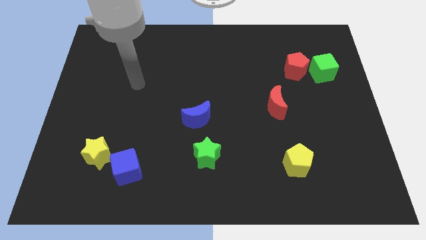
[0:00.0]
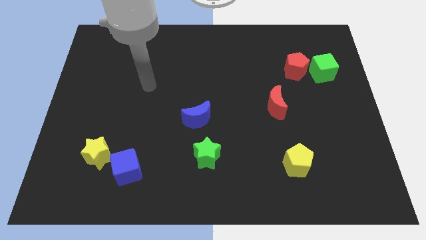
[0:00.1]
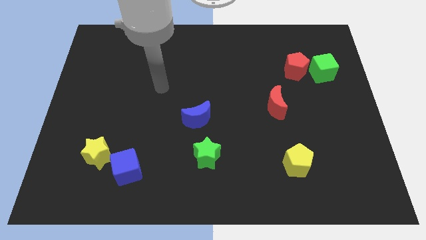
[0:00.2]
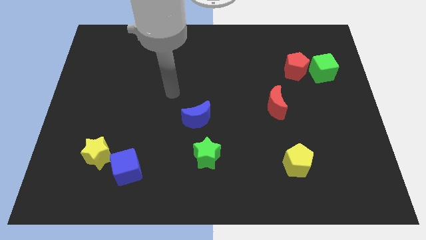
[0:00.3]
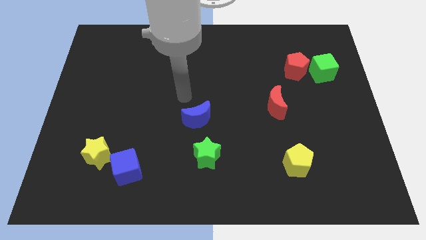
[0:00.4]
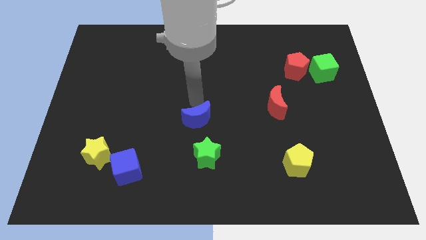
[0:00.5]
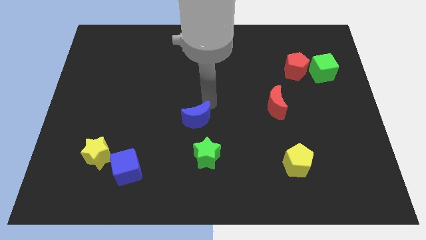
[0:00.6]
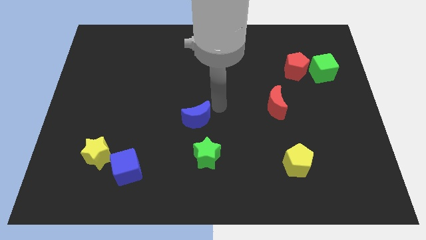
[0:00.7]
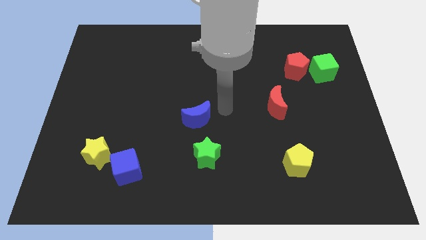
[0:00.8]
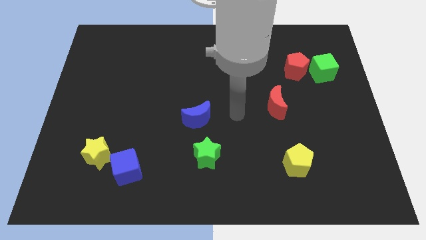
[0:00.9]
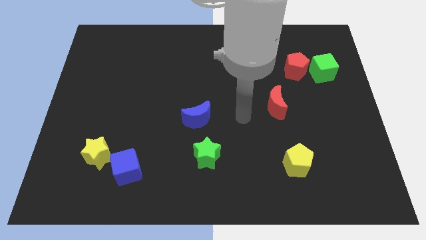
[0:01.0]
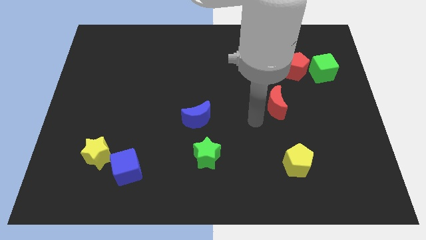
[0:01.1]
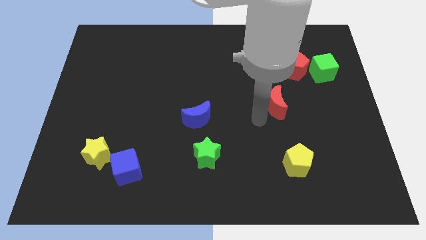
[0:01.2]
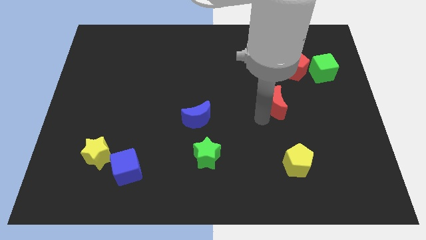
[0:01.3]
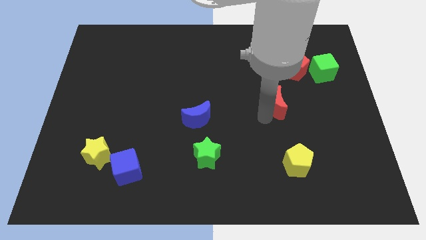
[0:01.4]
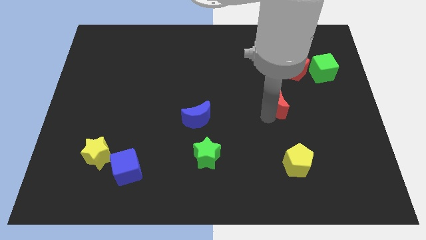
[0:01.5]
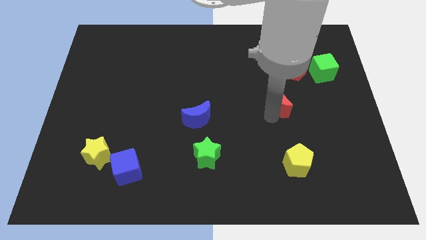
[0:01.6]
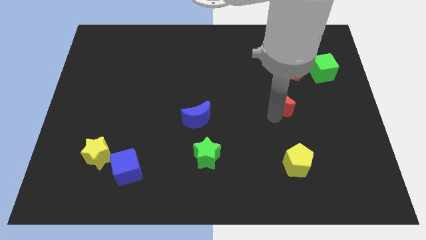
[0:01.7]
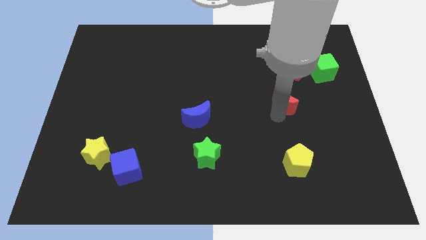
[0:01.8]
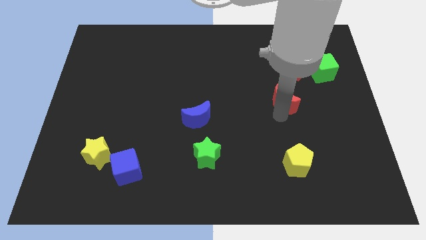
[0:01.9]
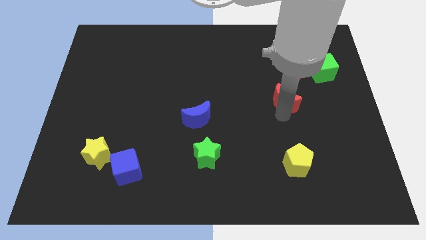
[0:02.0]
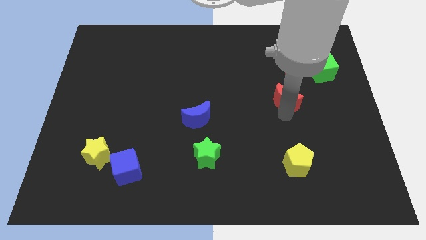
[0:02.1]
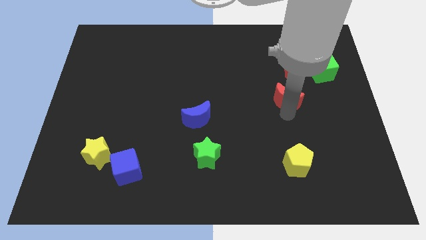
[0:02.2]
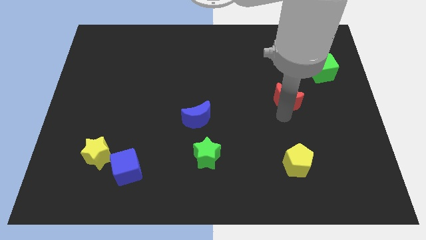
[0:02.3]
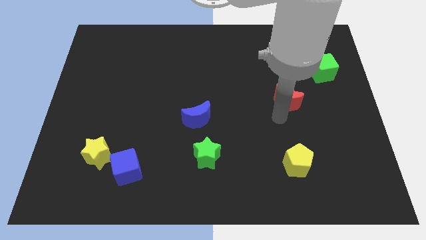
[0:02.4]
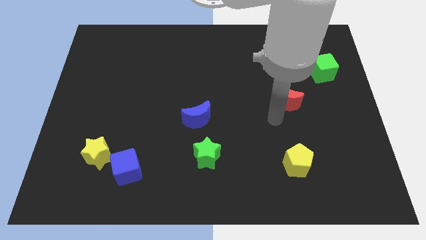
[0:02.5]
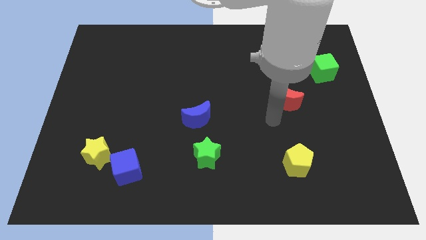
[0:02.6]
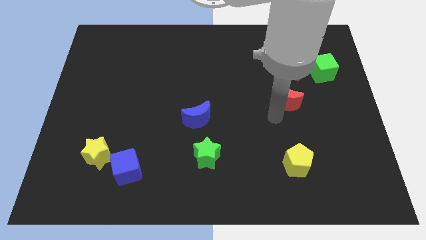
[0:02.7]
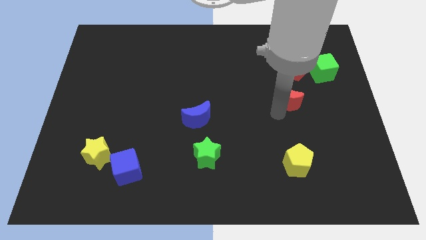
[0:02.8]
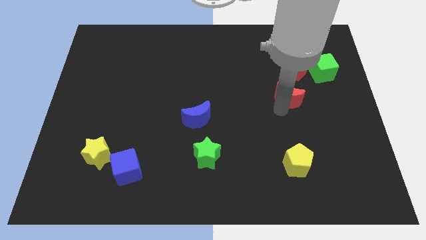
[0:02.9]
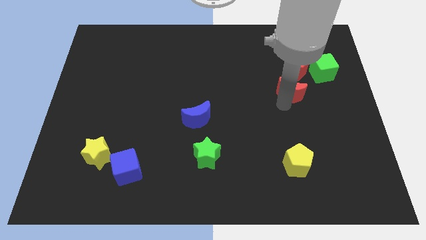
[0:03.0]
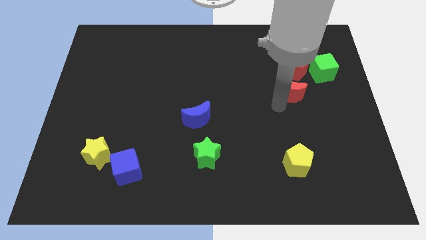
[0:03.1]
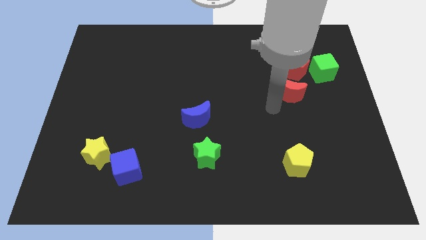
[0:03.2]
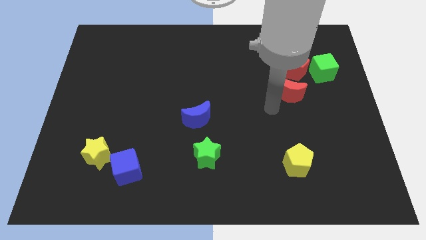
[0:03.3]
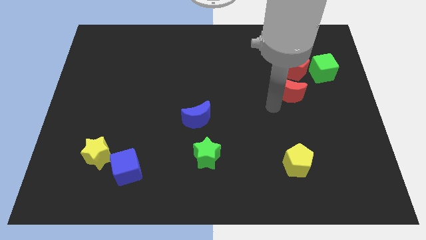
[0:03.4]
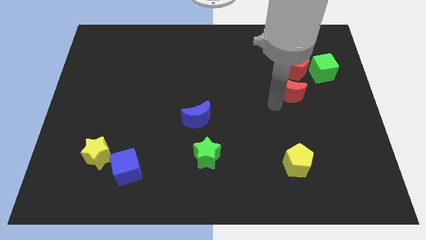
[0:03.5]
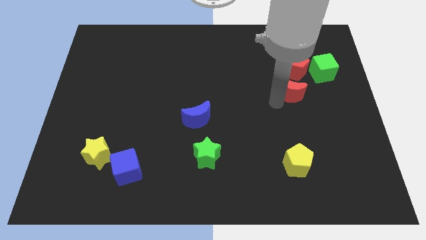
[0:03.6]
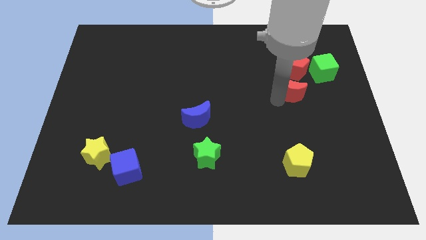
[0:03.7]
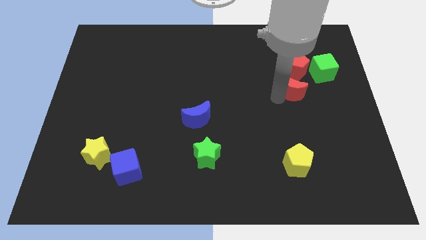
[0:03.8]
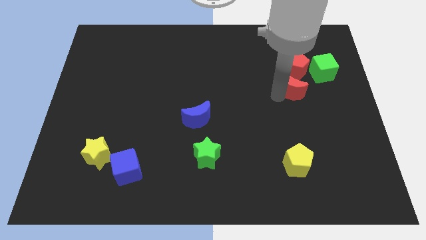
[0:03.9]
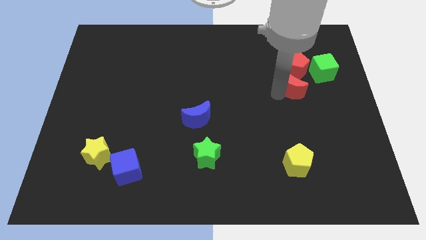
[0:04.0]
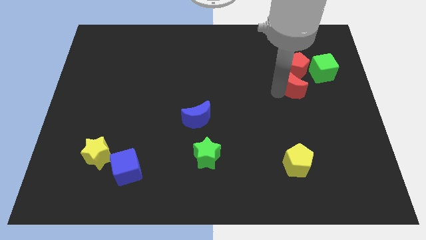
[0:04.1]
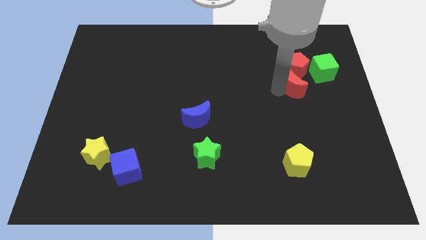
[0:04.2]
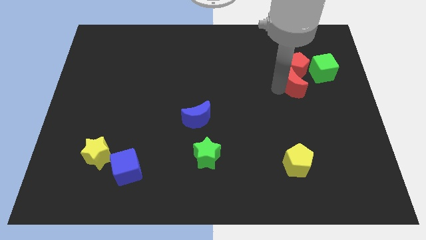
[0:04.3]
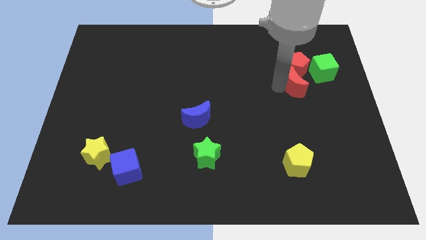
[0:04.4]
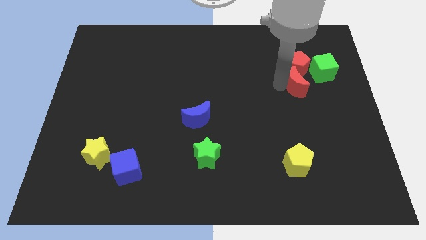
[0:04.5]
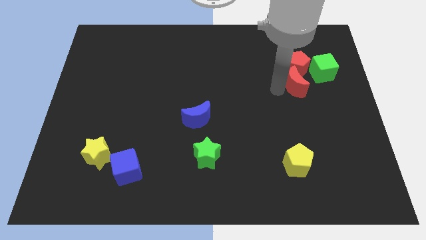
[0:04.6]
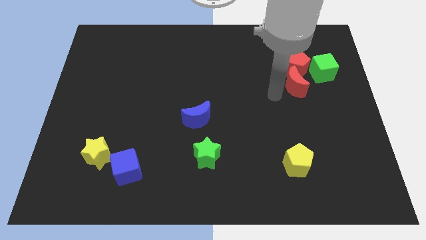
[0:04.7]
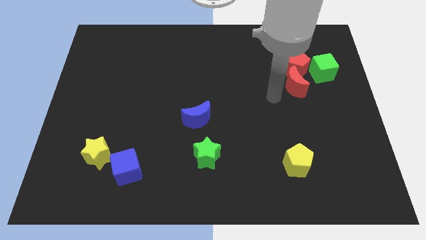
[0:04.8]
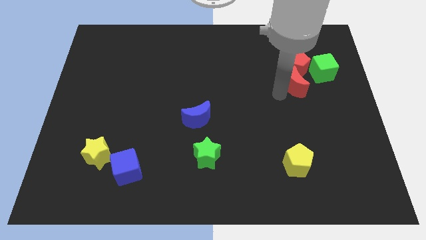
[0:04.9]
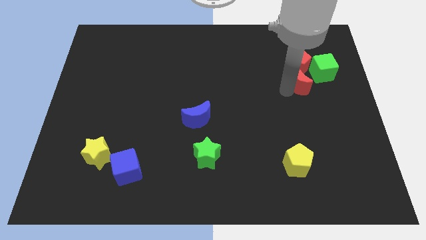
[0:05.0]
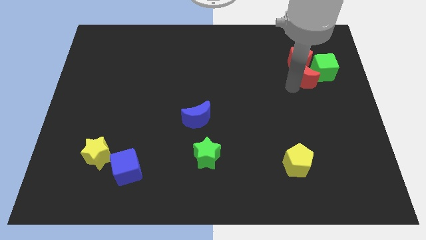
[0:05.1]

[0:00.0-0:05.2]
push the red moon next to the green cube

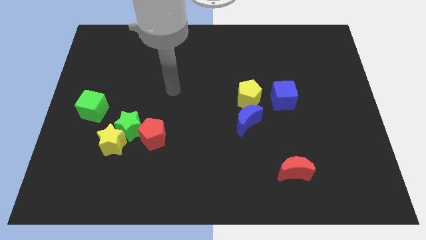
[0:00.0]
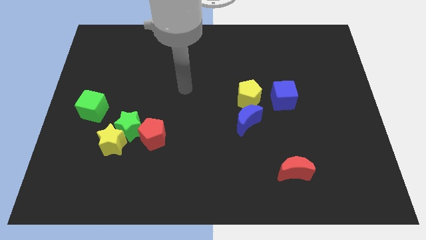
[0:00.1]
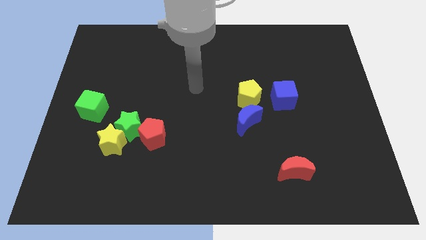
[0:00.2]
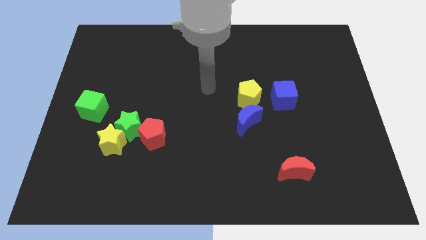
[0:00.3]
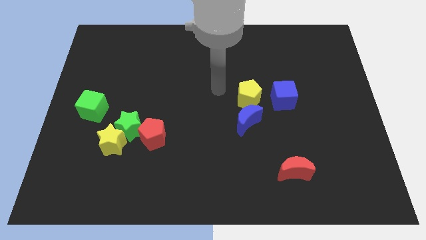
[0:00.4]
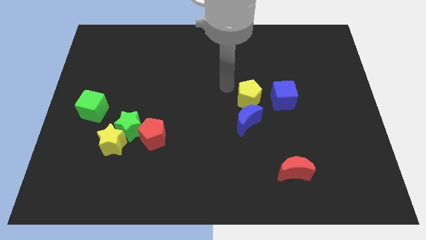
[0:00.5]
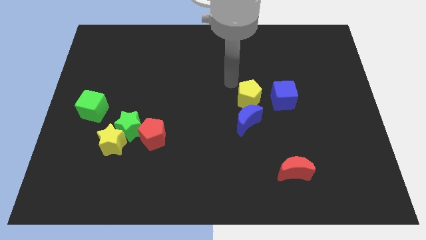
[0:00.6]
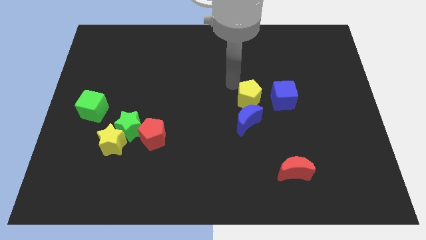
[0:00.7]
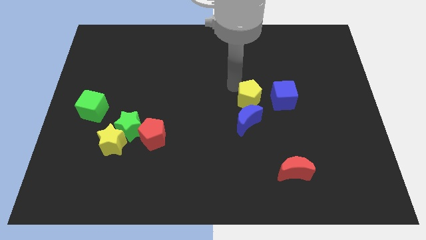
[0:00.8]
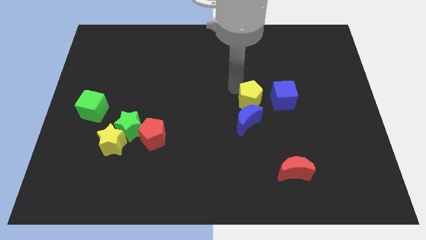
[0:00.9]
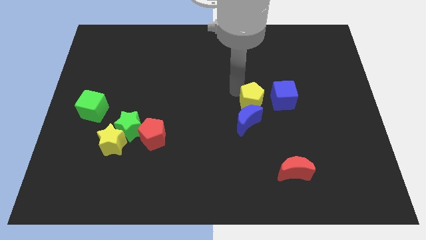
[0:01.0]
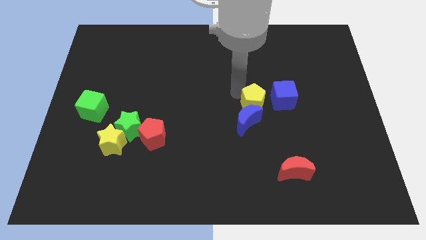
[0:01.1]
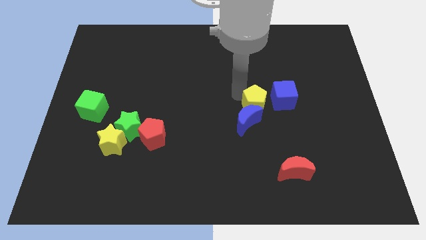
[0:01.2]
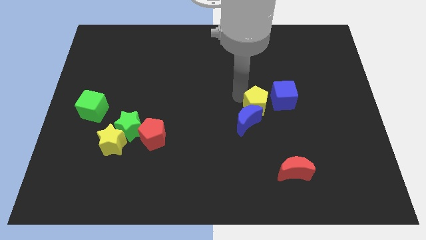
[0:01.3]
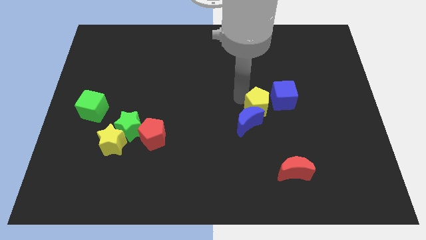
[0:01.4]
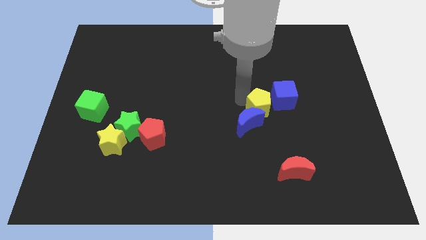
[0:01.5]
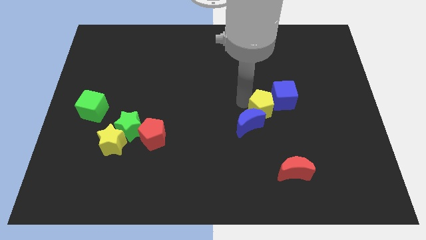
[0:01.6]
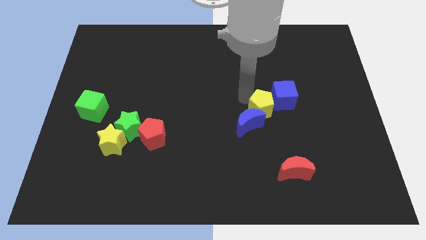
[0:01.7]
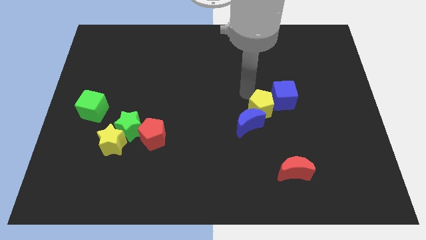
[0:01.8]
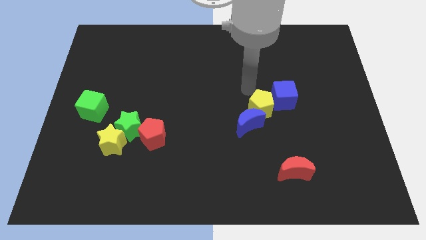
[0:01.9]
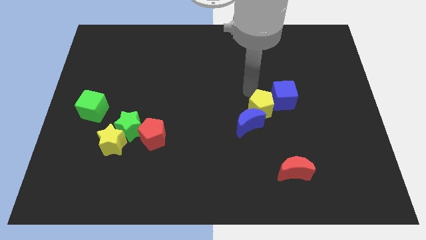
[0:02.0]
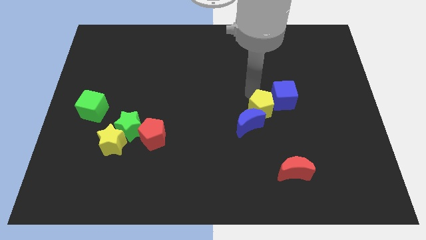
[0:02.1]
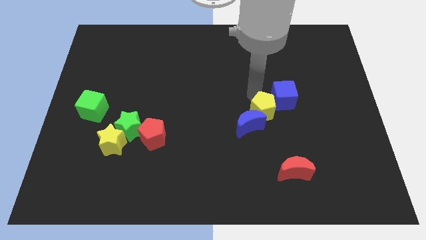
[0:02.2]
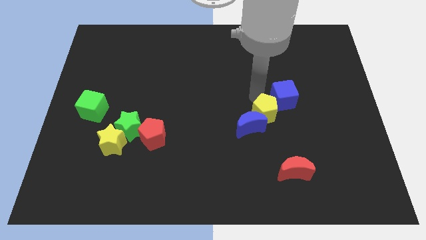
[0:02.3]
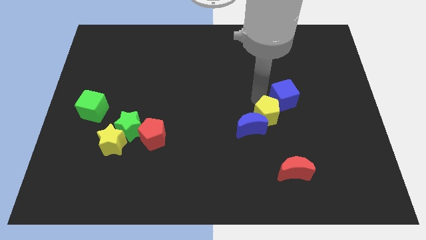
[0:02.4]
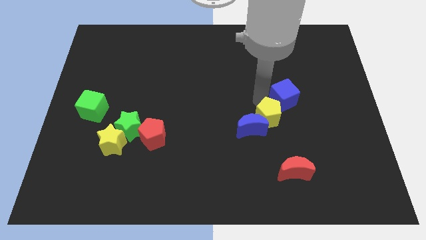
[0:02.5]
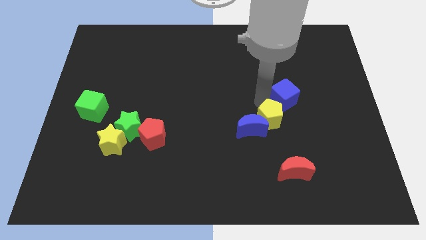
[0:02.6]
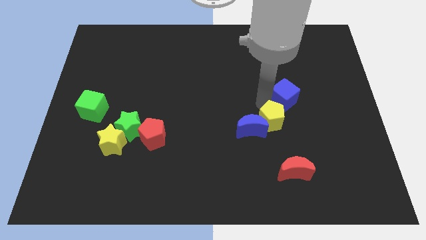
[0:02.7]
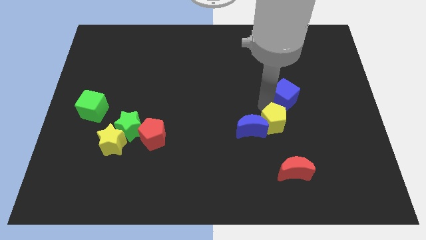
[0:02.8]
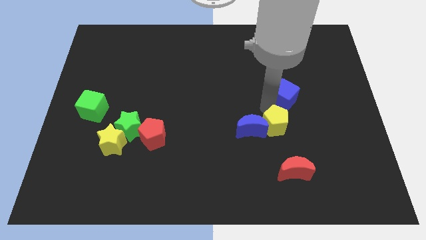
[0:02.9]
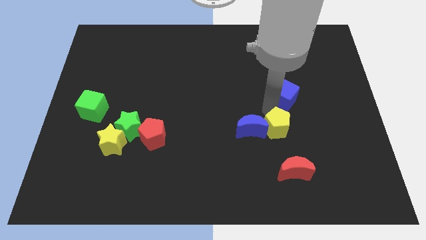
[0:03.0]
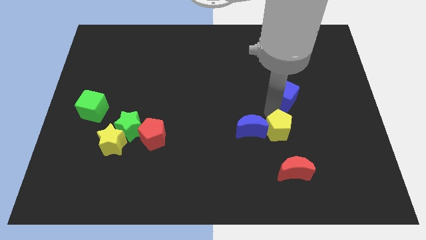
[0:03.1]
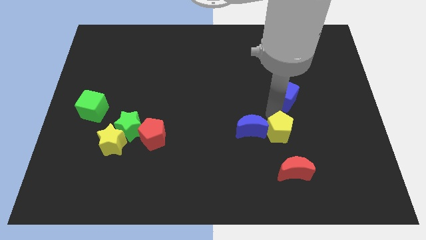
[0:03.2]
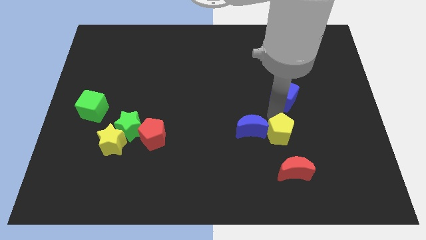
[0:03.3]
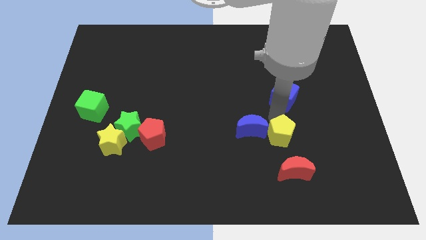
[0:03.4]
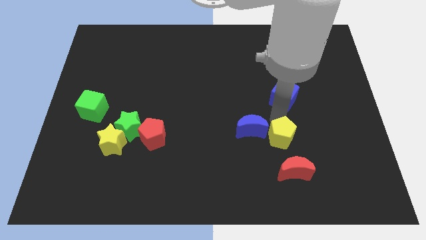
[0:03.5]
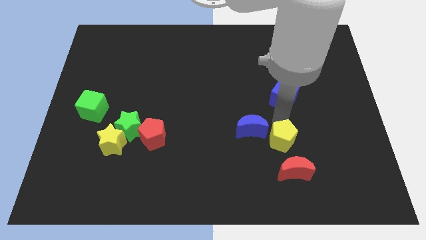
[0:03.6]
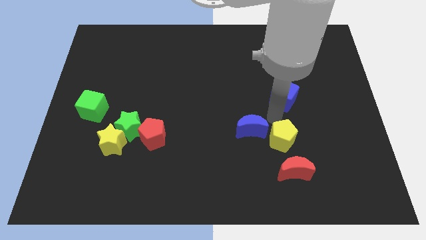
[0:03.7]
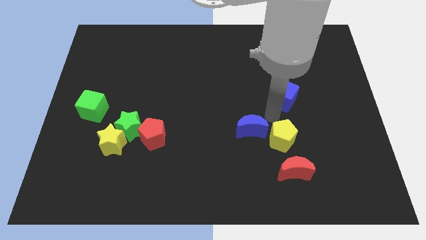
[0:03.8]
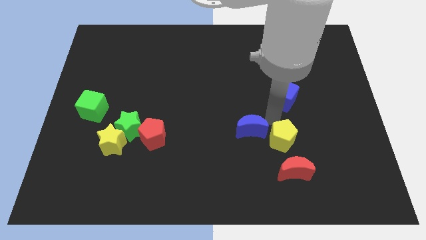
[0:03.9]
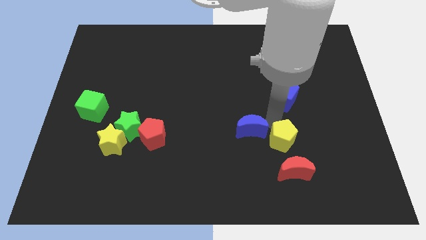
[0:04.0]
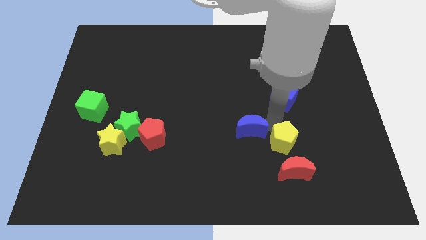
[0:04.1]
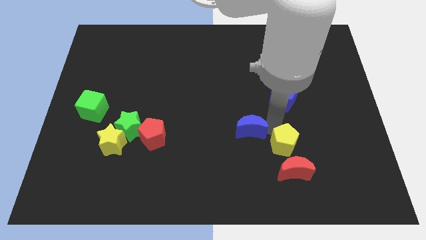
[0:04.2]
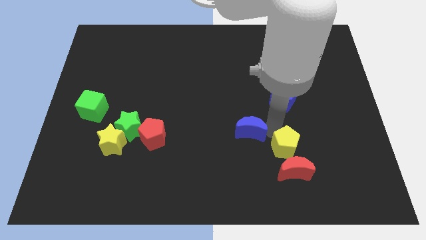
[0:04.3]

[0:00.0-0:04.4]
push the yellow pentagon to the red moon
